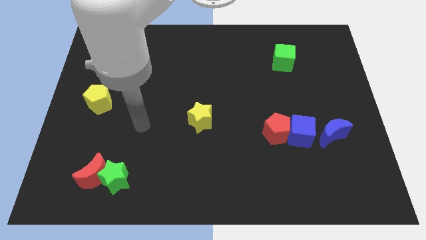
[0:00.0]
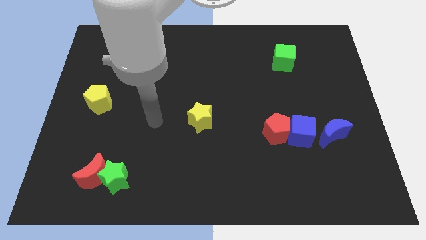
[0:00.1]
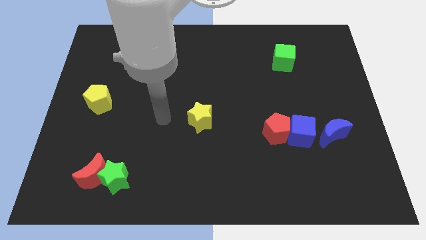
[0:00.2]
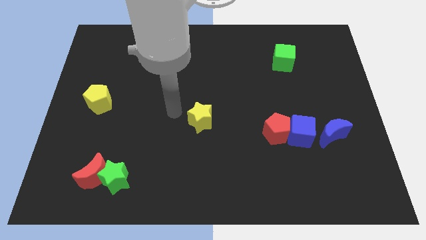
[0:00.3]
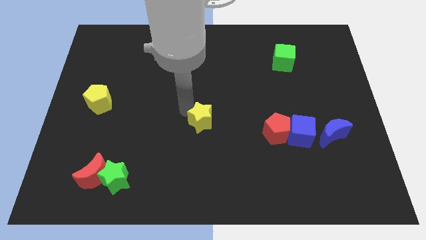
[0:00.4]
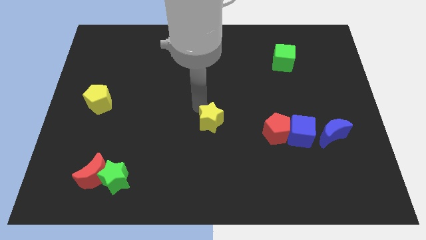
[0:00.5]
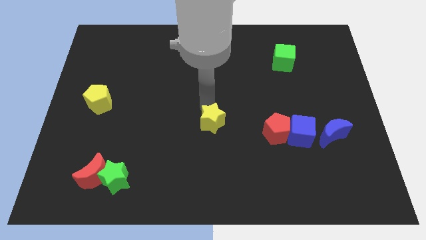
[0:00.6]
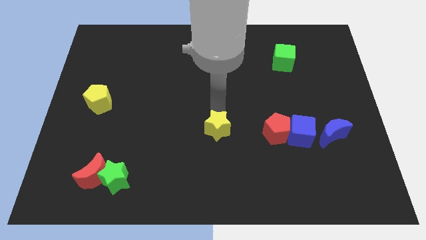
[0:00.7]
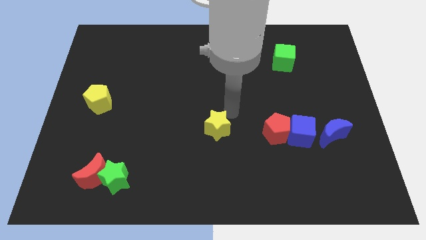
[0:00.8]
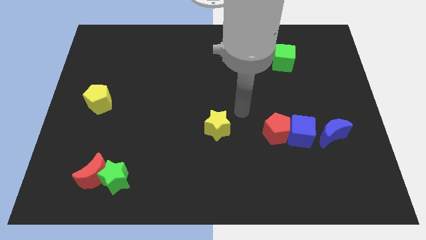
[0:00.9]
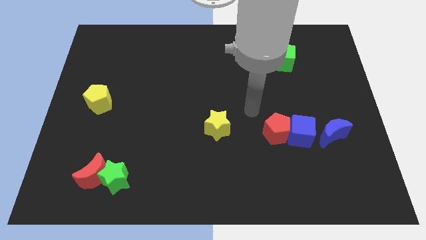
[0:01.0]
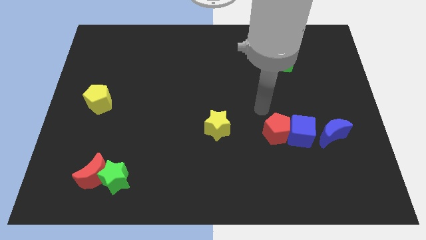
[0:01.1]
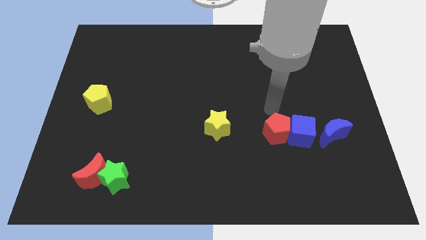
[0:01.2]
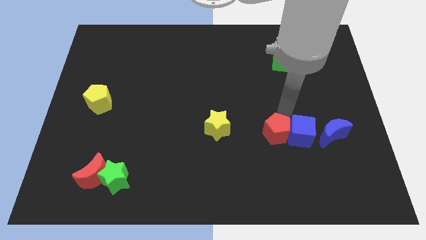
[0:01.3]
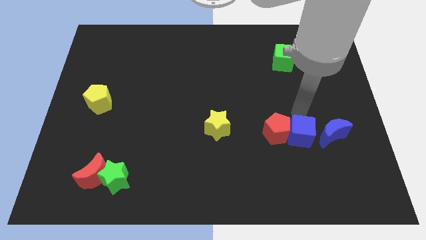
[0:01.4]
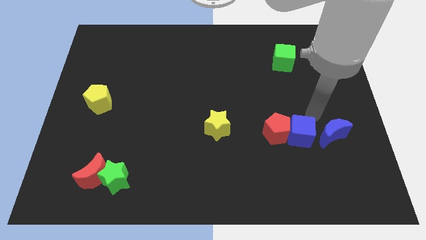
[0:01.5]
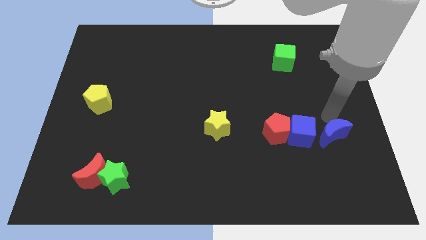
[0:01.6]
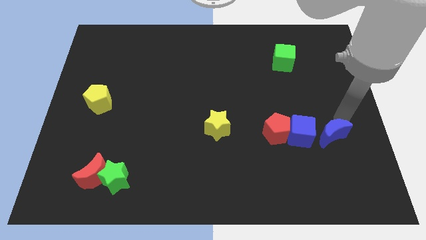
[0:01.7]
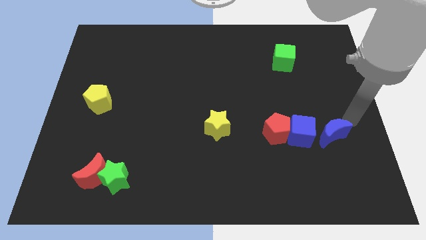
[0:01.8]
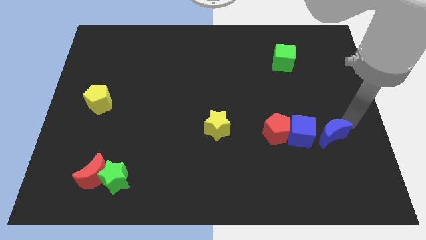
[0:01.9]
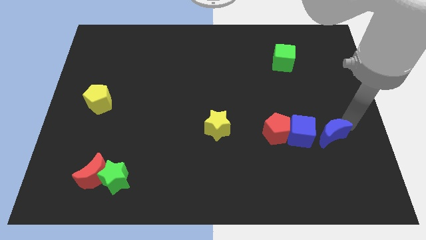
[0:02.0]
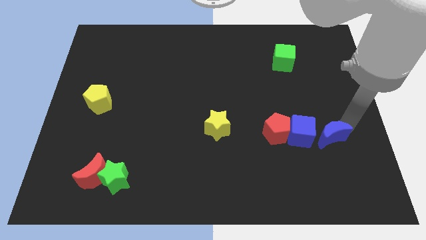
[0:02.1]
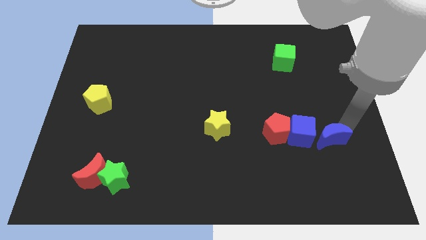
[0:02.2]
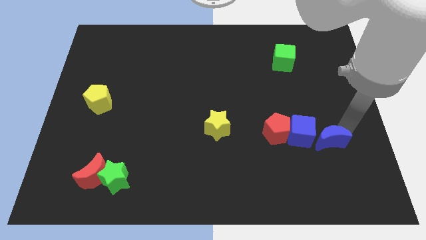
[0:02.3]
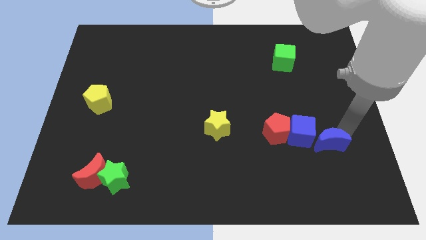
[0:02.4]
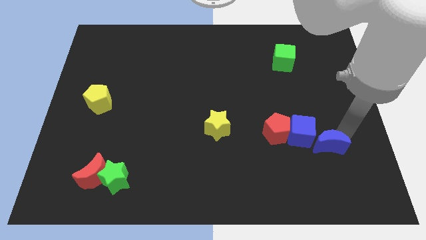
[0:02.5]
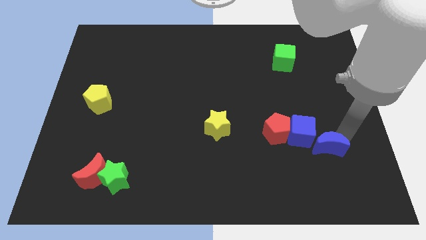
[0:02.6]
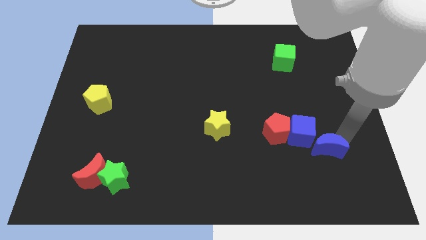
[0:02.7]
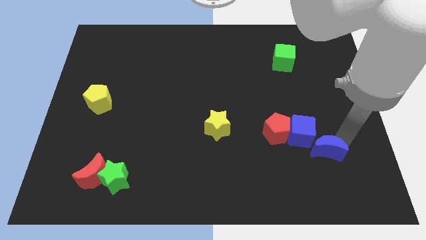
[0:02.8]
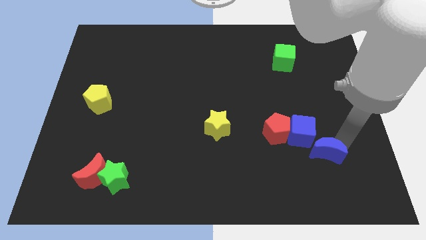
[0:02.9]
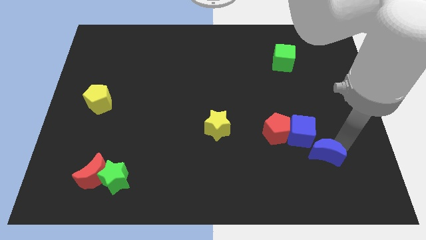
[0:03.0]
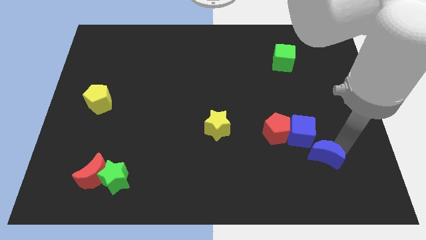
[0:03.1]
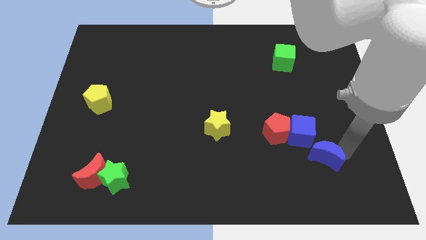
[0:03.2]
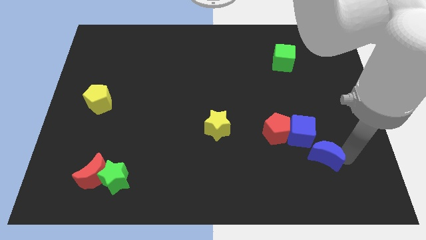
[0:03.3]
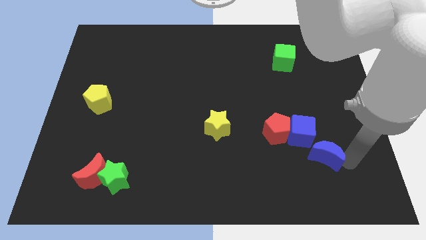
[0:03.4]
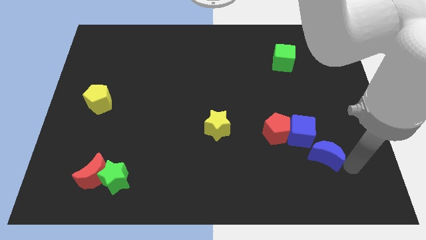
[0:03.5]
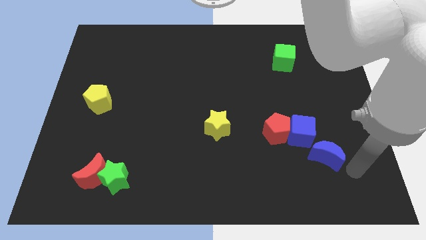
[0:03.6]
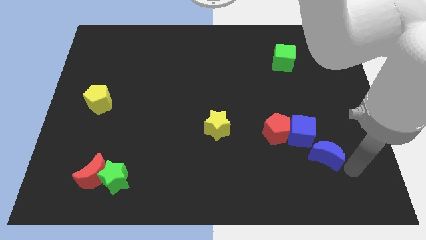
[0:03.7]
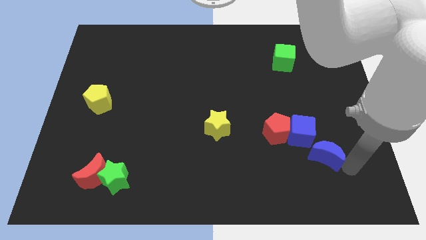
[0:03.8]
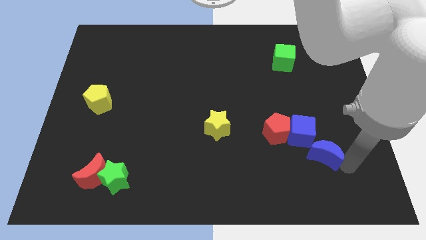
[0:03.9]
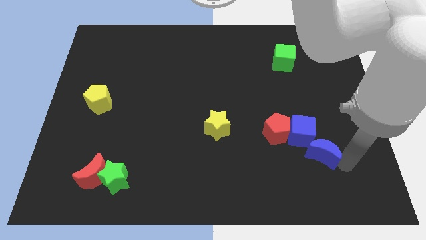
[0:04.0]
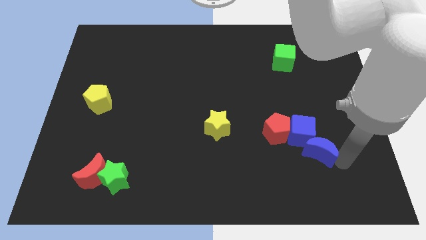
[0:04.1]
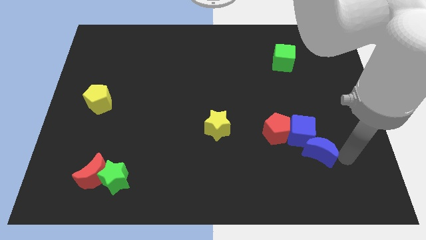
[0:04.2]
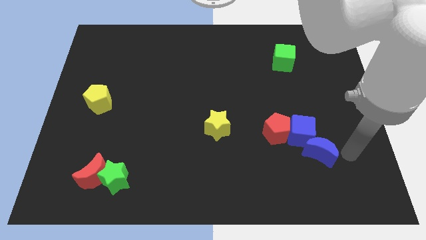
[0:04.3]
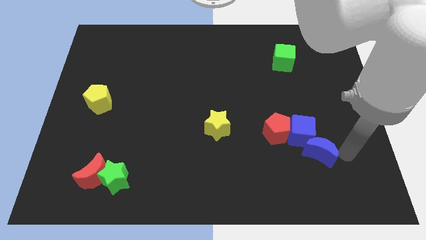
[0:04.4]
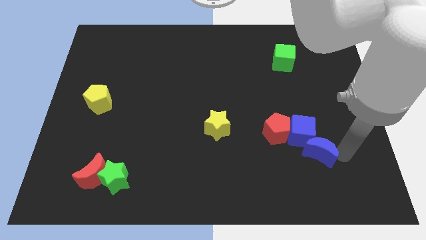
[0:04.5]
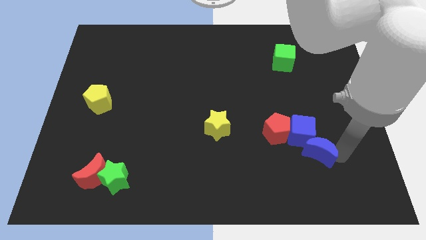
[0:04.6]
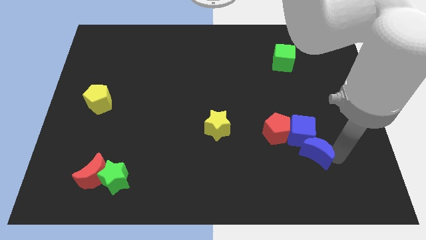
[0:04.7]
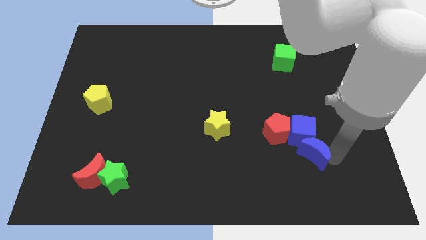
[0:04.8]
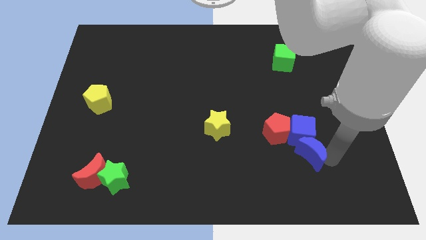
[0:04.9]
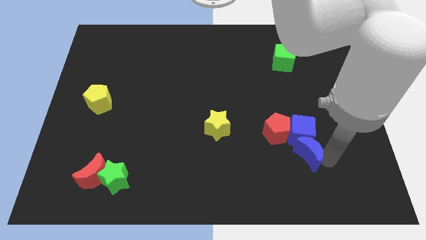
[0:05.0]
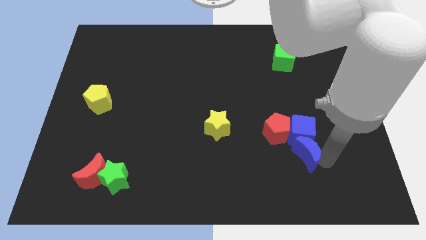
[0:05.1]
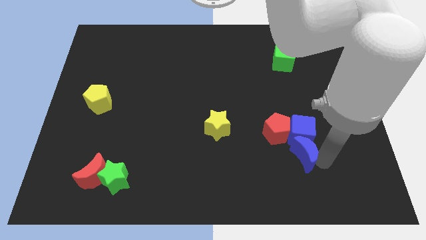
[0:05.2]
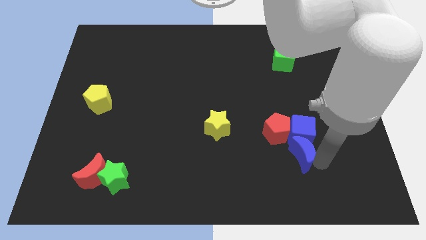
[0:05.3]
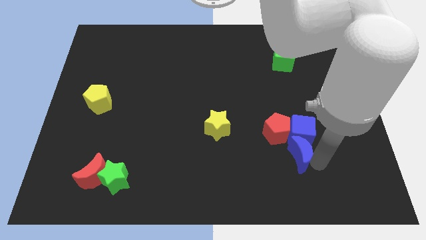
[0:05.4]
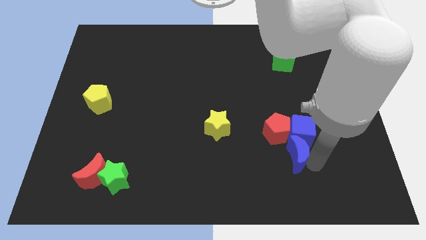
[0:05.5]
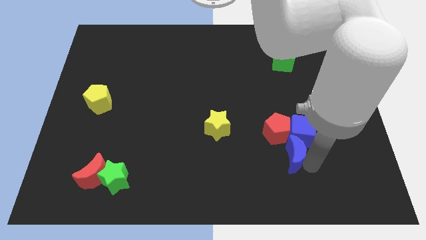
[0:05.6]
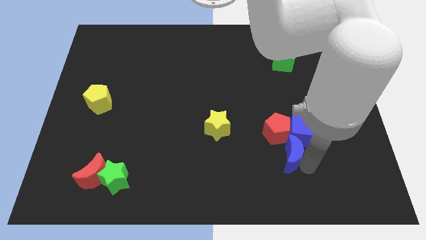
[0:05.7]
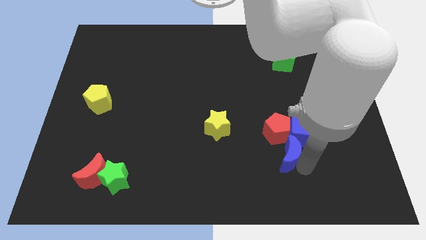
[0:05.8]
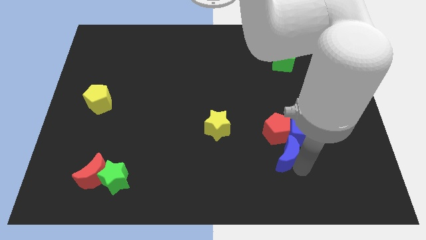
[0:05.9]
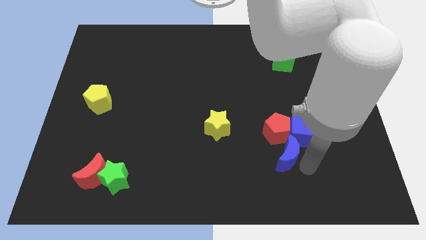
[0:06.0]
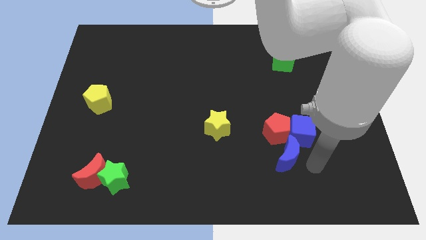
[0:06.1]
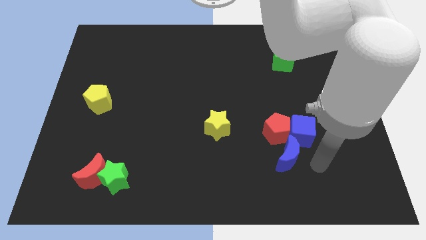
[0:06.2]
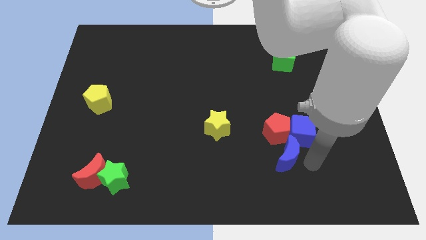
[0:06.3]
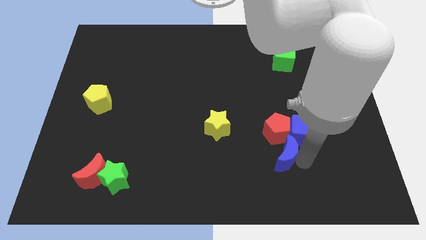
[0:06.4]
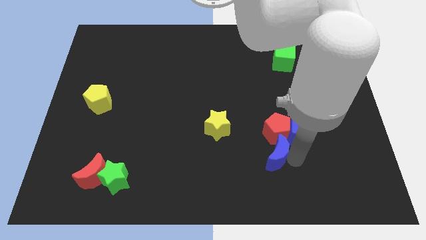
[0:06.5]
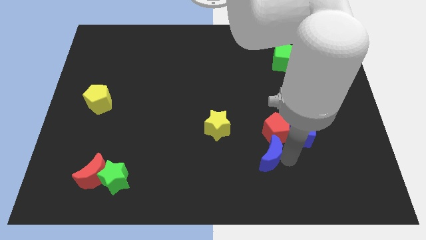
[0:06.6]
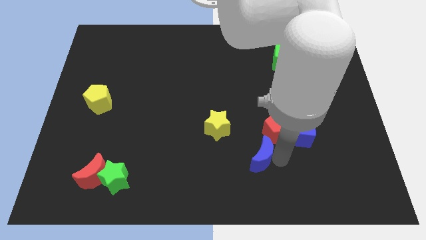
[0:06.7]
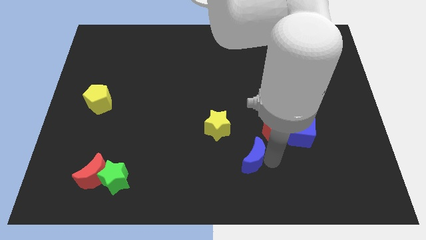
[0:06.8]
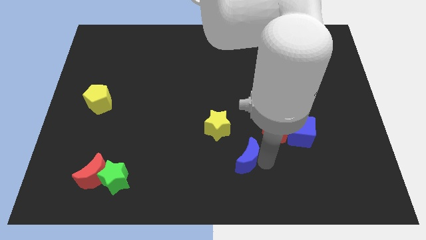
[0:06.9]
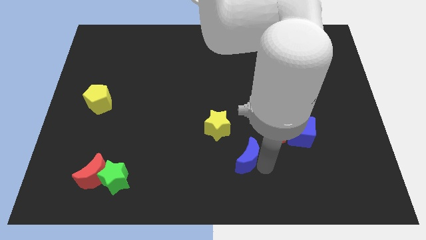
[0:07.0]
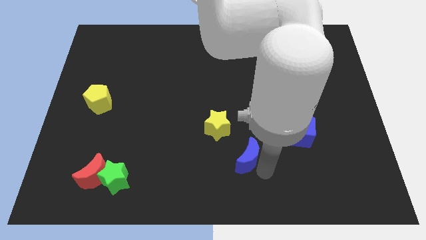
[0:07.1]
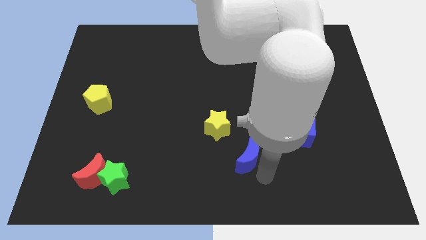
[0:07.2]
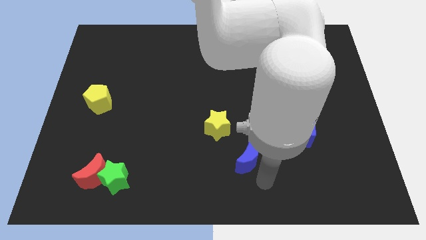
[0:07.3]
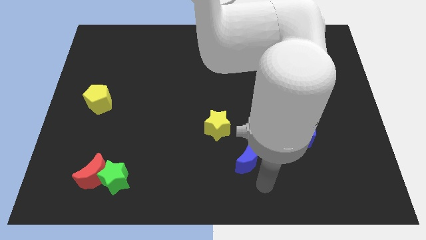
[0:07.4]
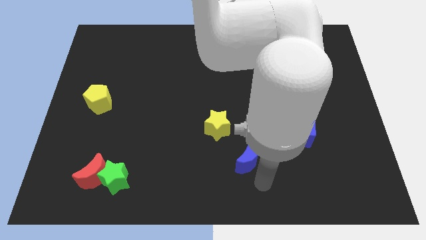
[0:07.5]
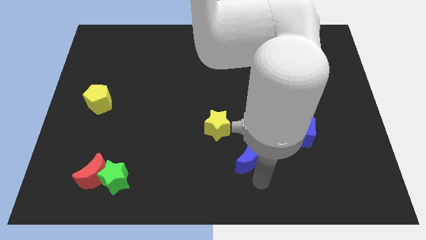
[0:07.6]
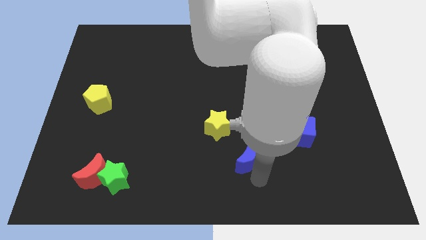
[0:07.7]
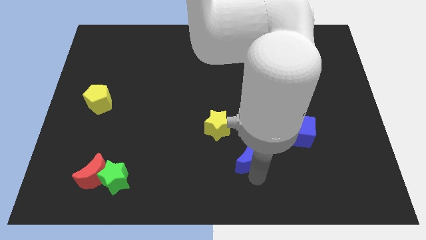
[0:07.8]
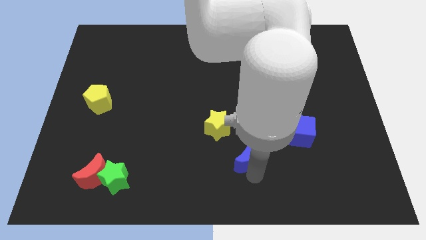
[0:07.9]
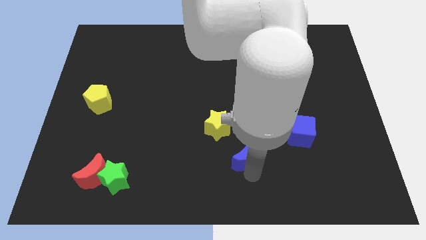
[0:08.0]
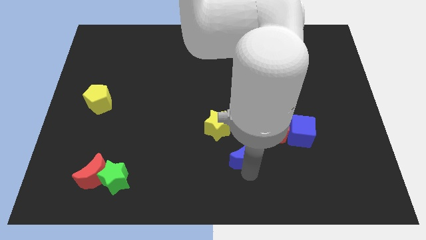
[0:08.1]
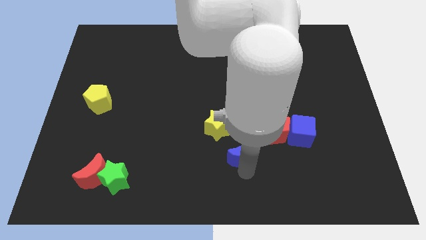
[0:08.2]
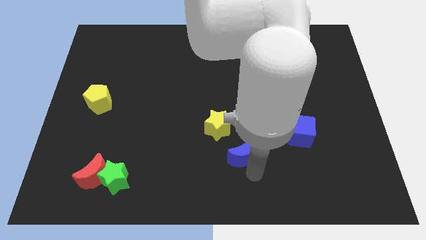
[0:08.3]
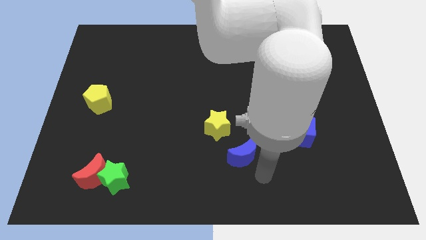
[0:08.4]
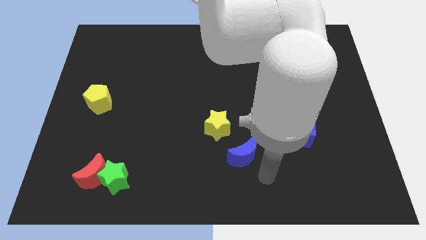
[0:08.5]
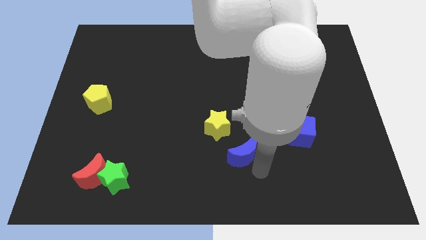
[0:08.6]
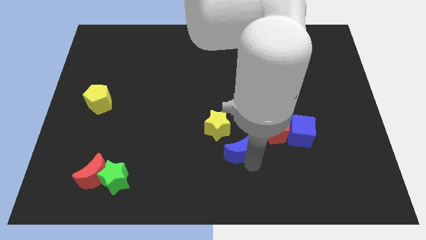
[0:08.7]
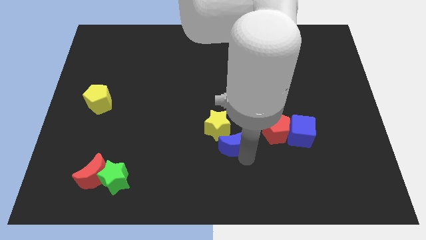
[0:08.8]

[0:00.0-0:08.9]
put the blue moon to the yellow star
